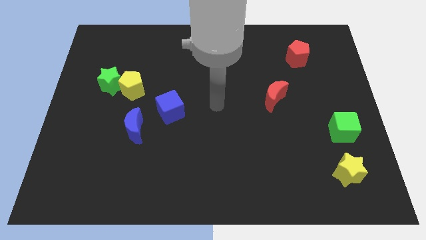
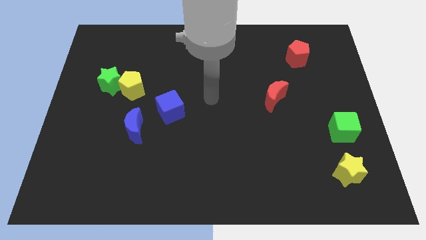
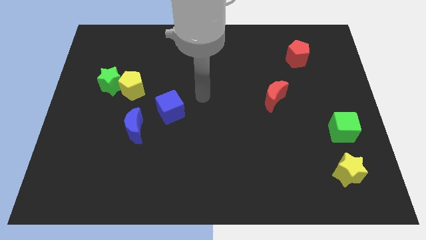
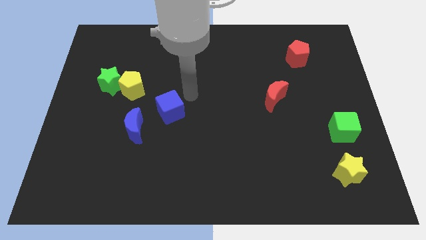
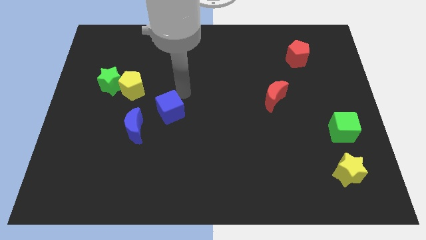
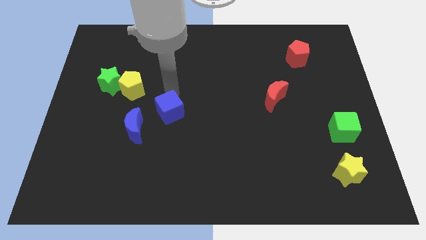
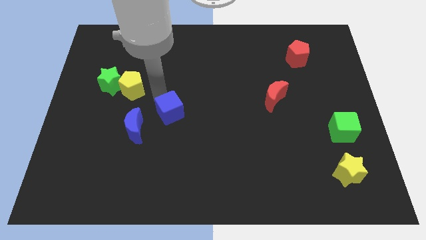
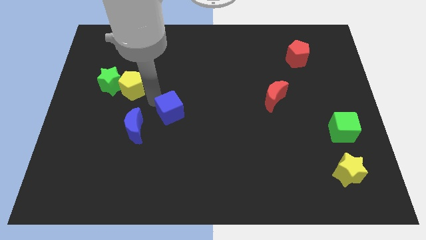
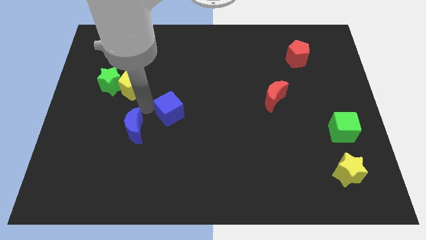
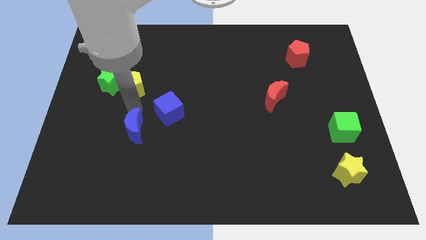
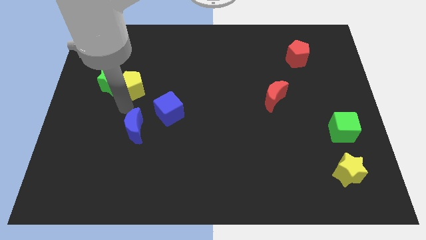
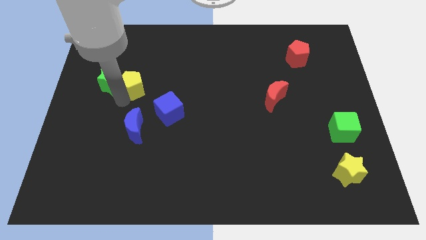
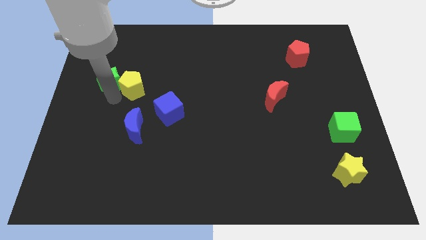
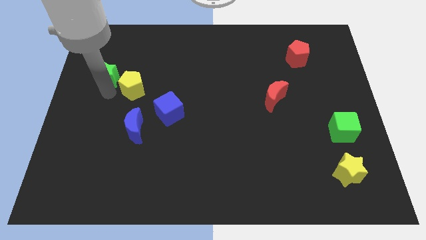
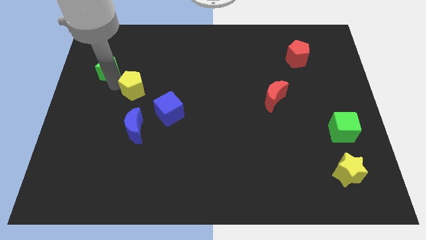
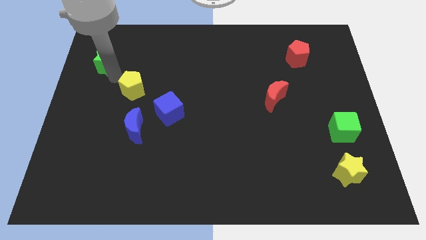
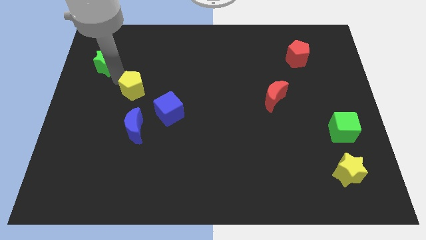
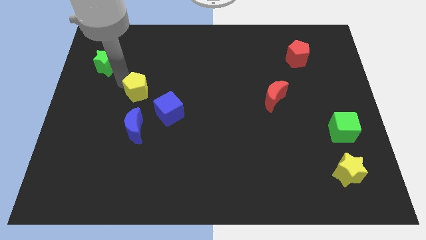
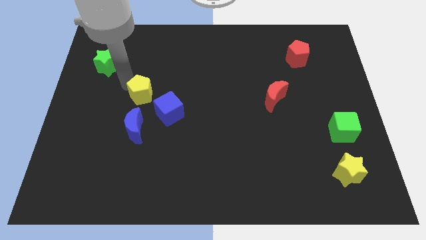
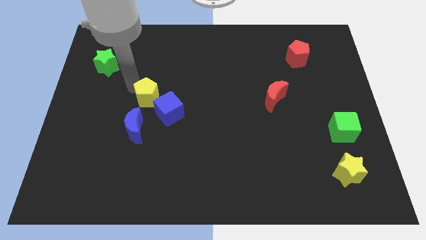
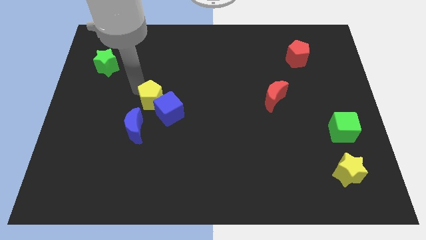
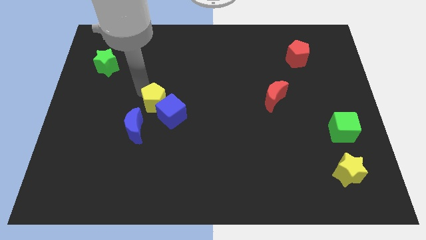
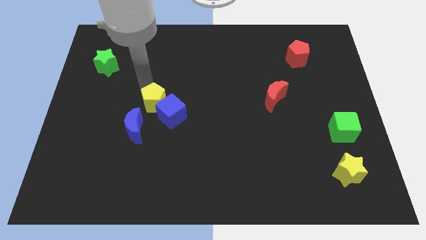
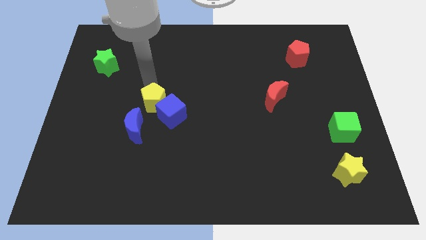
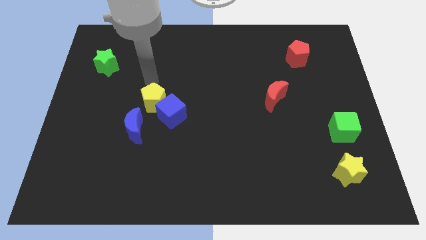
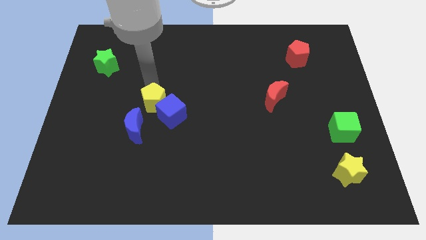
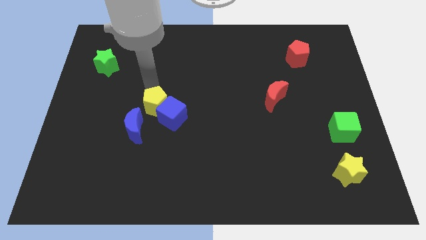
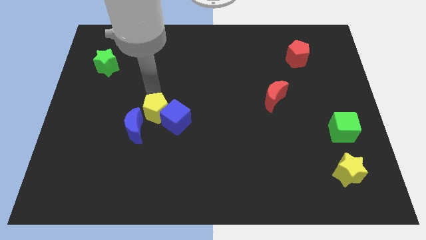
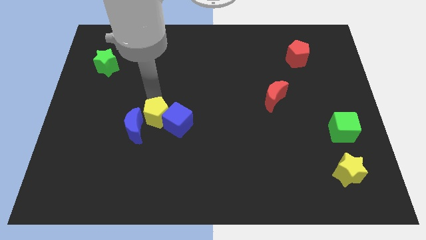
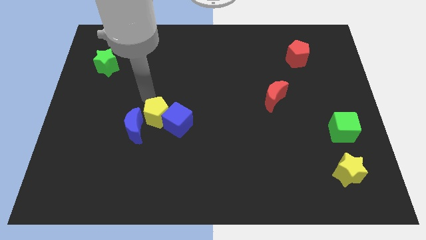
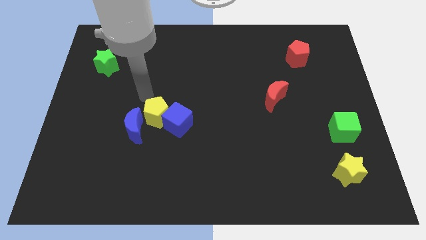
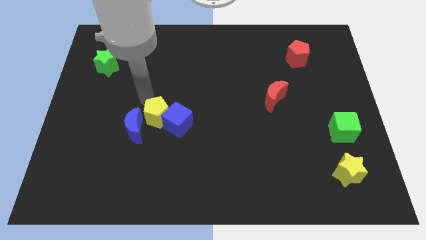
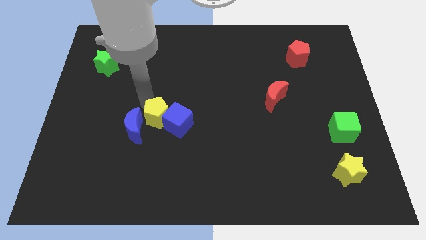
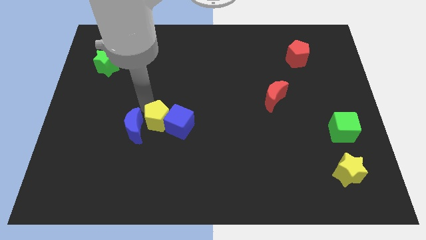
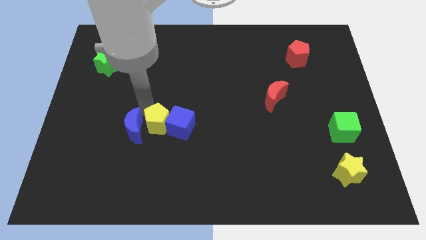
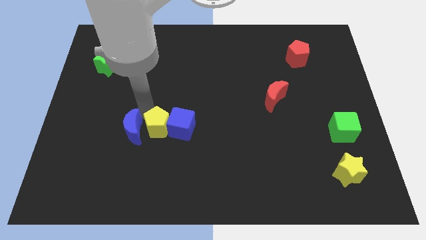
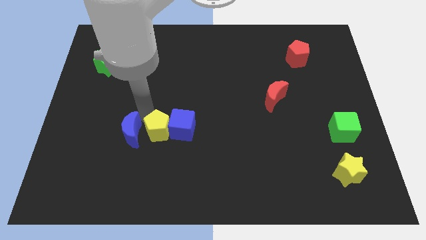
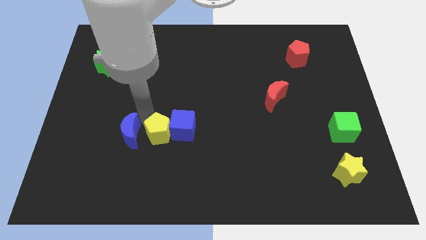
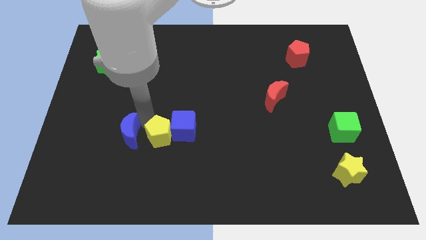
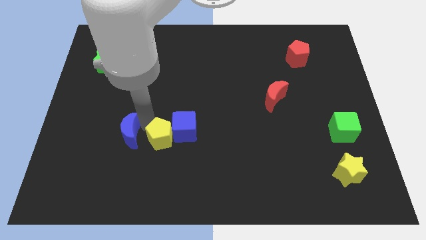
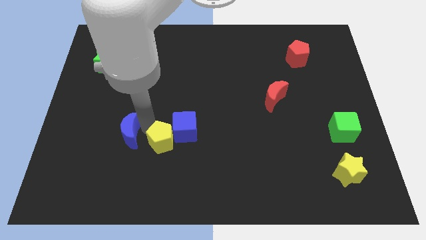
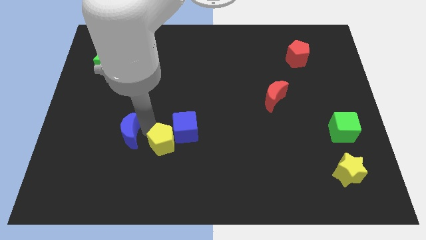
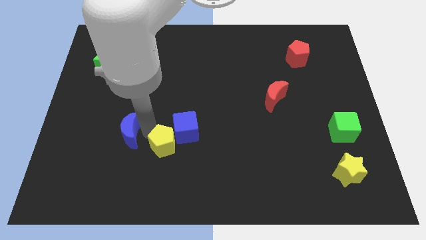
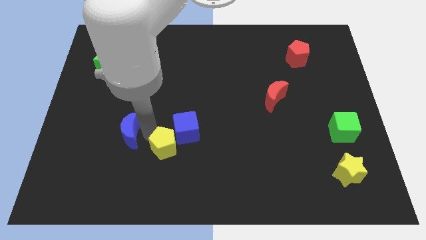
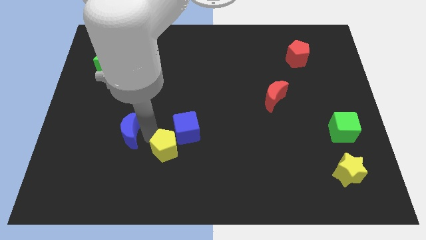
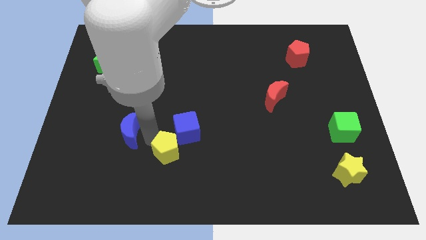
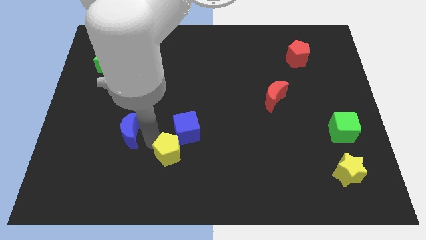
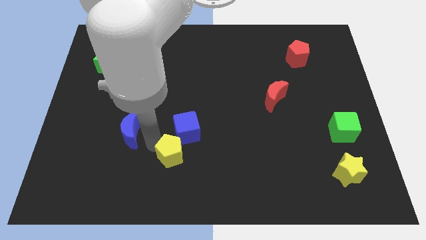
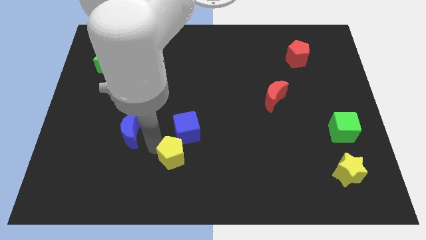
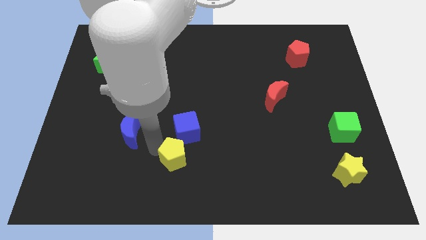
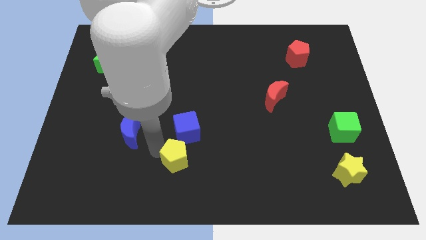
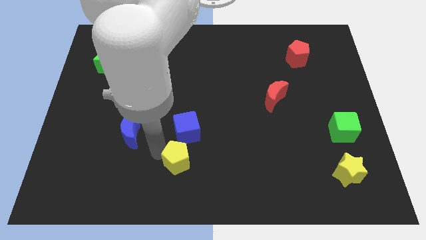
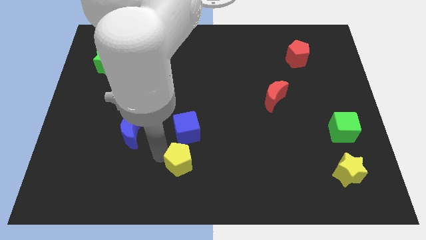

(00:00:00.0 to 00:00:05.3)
put the yellow pentagon to the bottom side

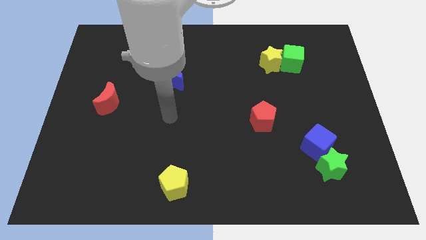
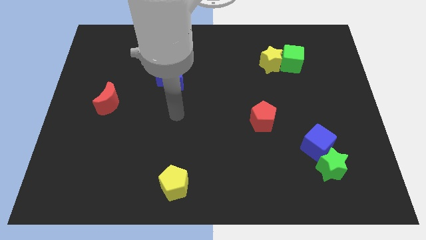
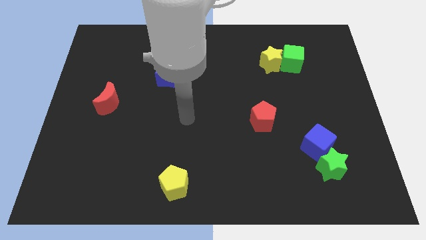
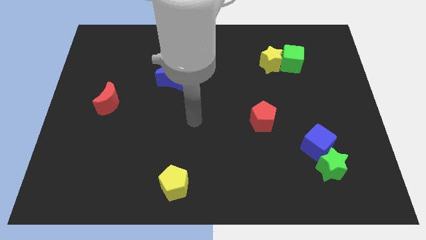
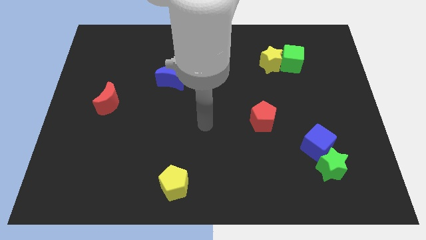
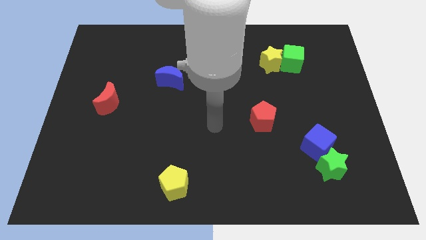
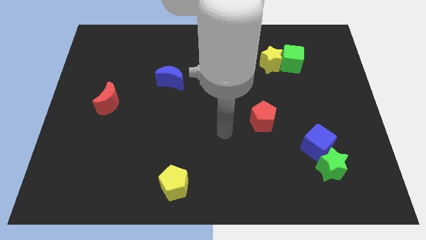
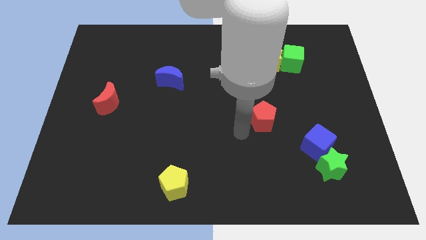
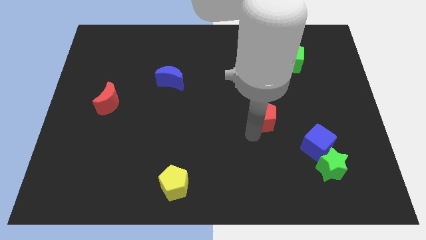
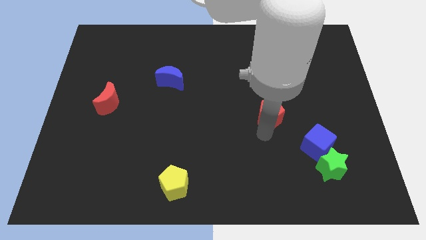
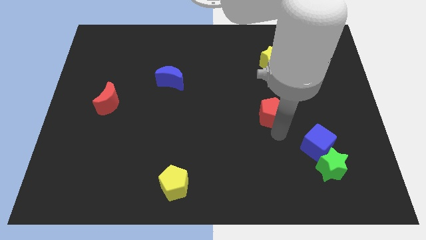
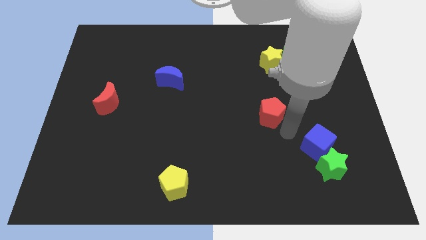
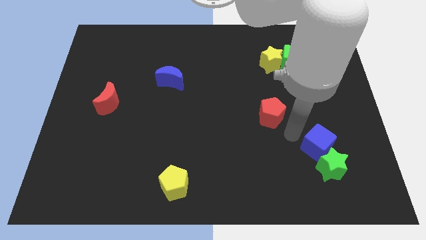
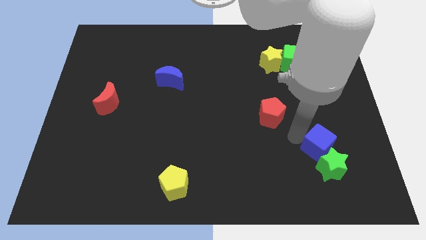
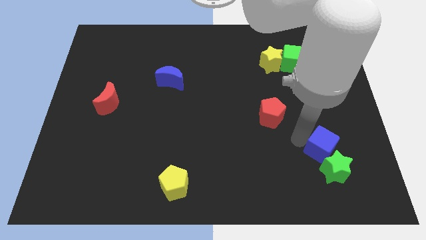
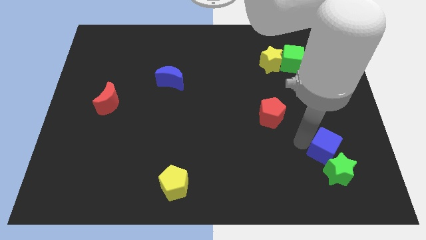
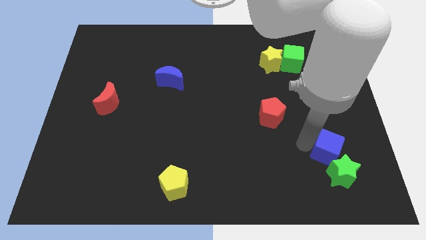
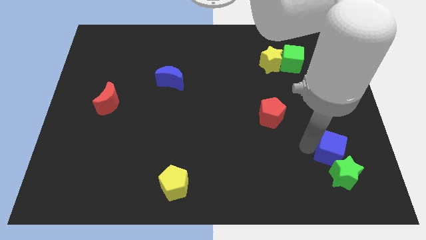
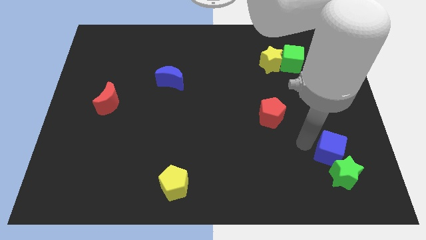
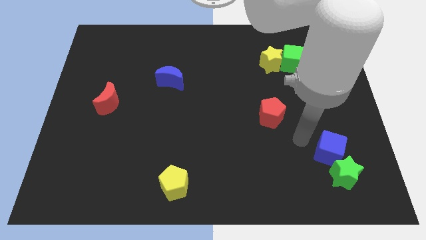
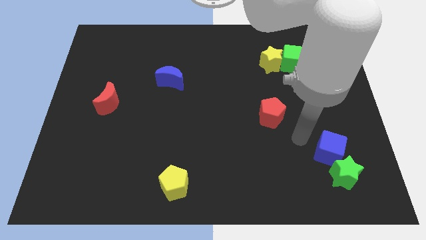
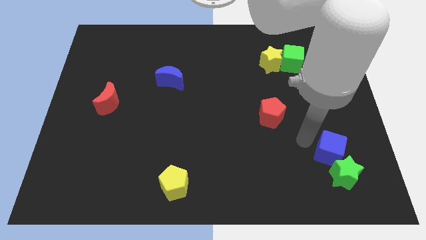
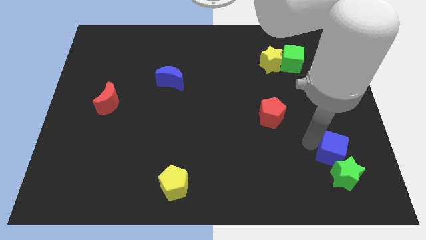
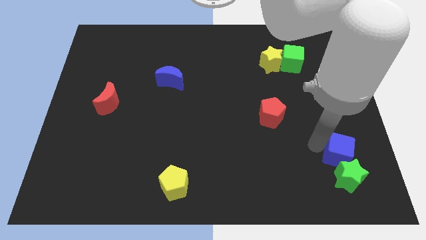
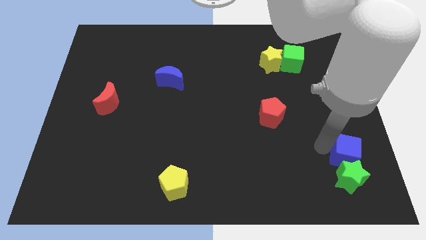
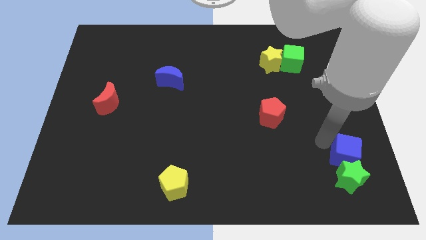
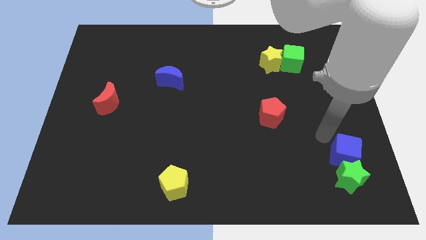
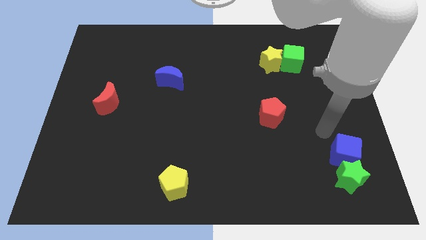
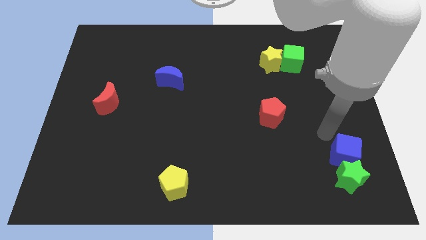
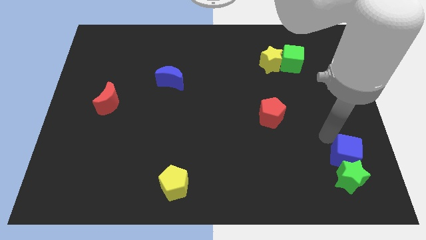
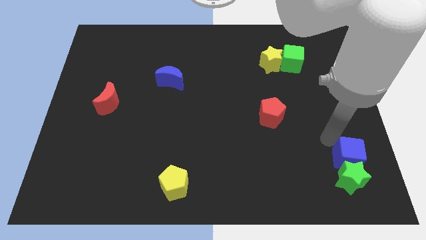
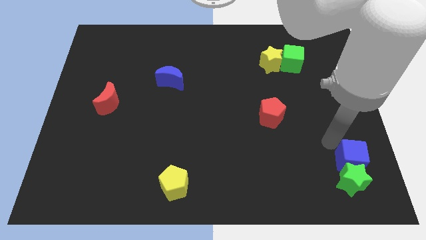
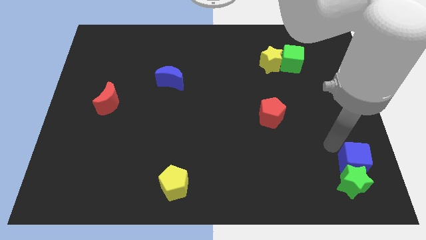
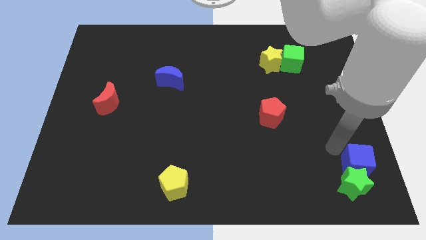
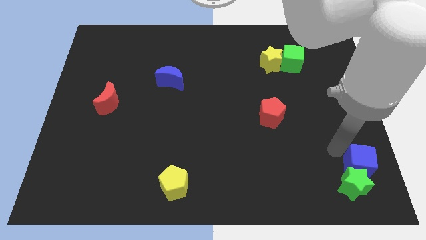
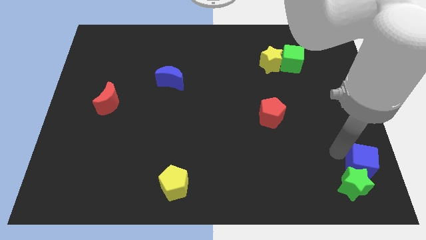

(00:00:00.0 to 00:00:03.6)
move the blue cube to the bottom right
